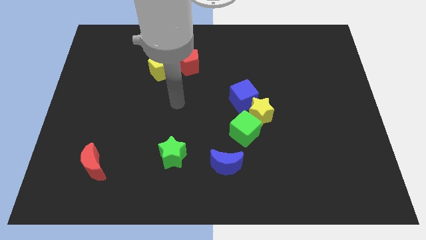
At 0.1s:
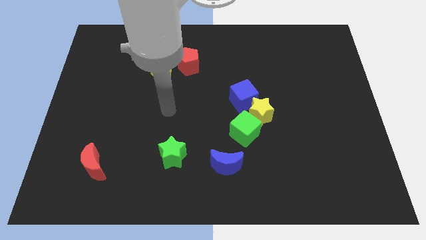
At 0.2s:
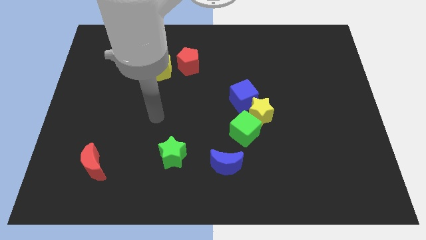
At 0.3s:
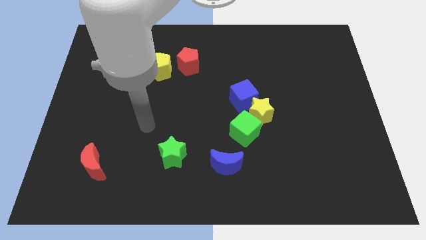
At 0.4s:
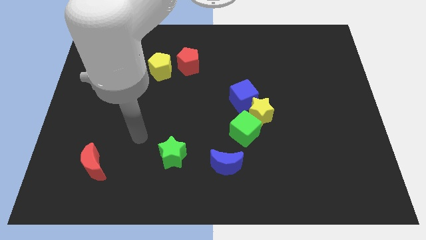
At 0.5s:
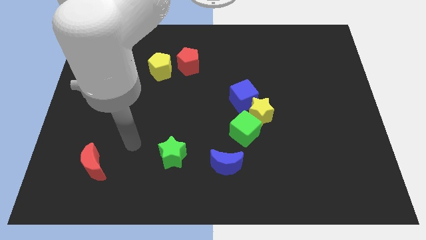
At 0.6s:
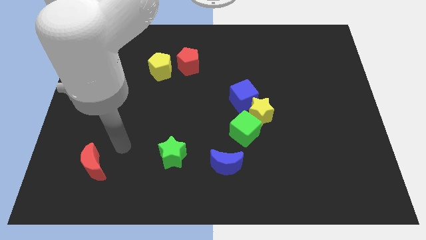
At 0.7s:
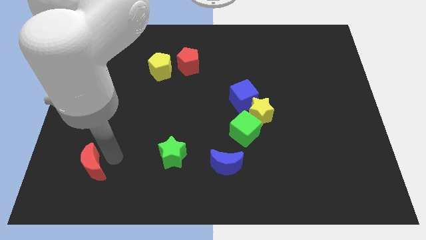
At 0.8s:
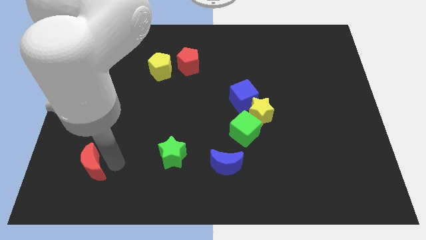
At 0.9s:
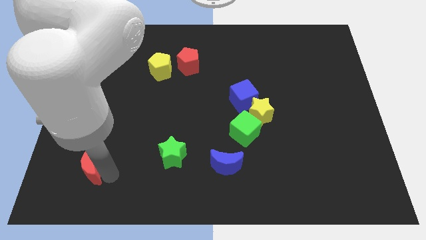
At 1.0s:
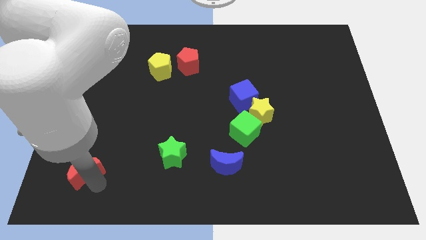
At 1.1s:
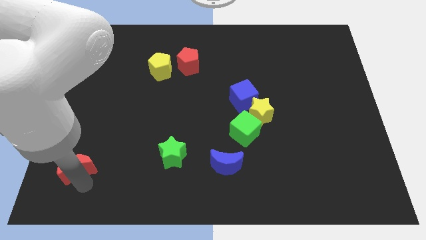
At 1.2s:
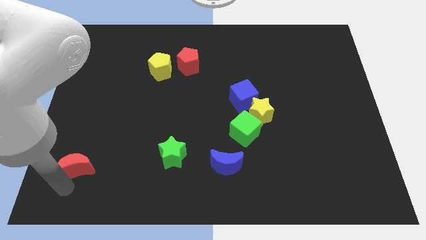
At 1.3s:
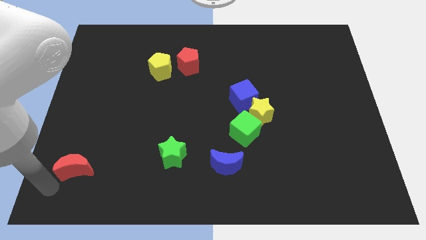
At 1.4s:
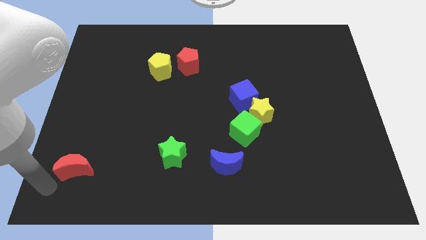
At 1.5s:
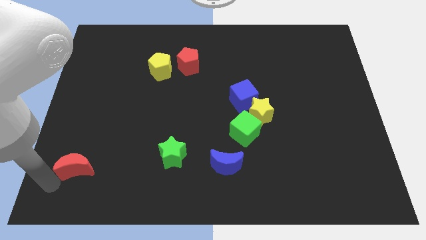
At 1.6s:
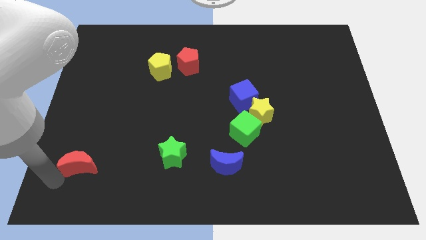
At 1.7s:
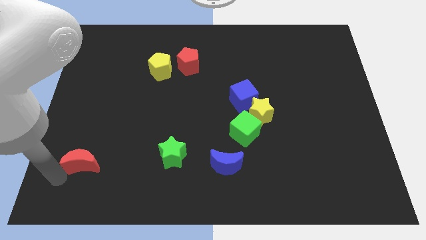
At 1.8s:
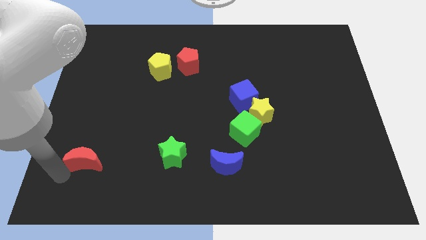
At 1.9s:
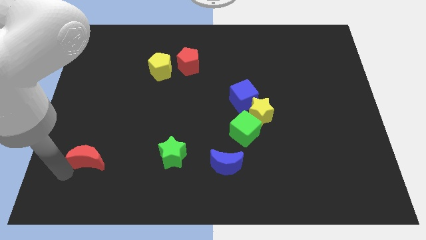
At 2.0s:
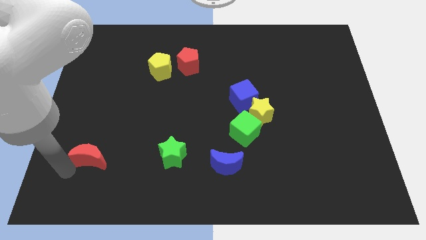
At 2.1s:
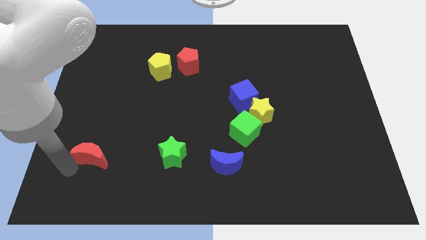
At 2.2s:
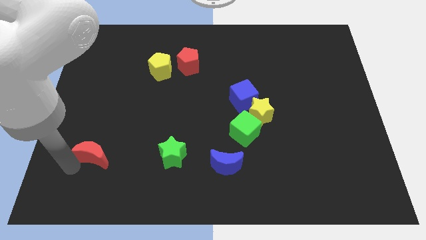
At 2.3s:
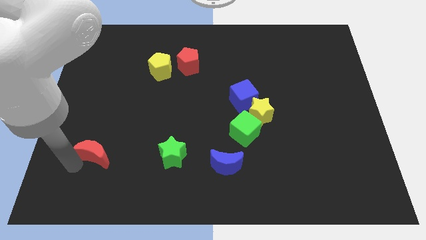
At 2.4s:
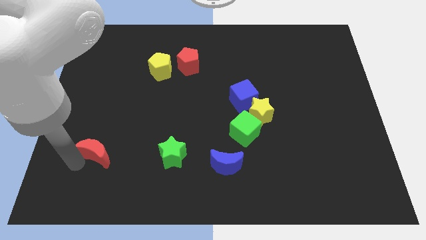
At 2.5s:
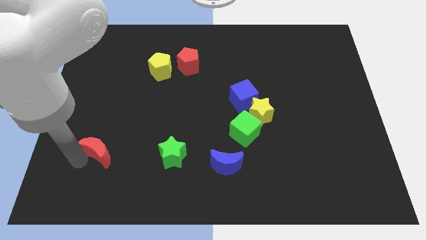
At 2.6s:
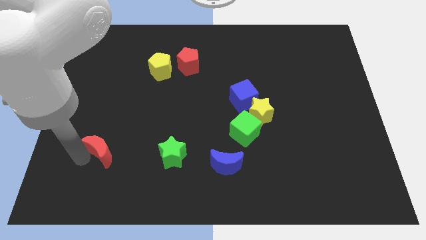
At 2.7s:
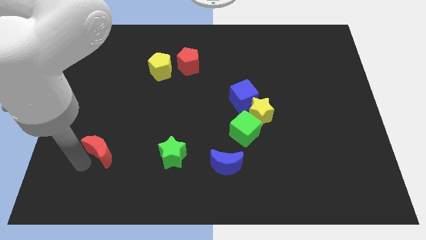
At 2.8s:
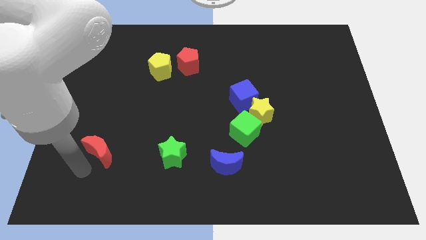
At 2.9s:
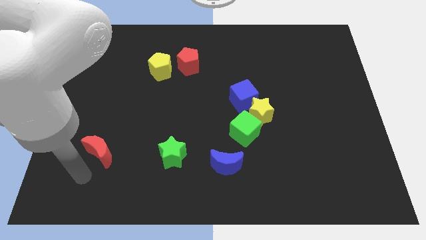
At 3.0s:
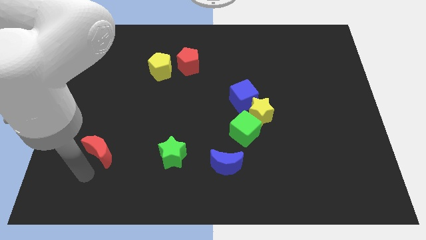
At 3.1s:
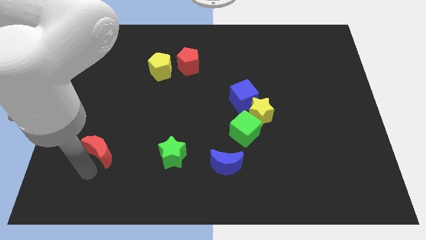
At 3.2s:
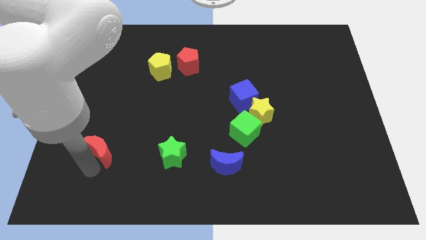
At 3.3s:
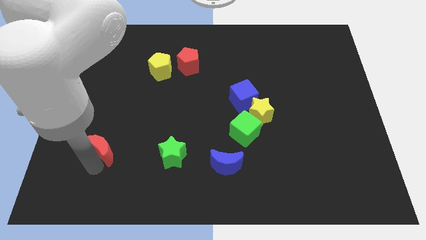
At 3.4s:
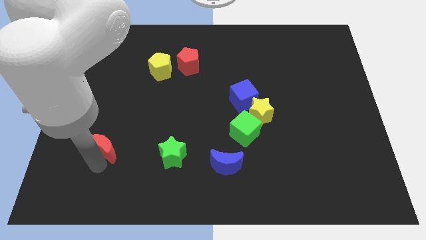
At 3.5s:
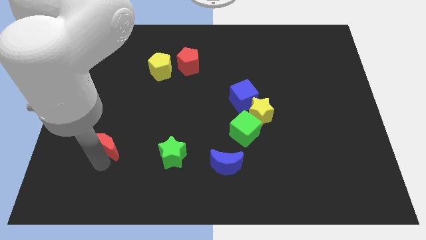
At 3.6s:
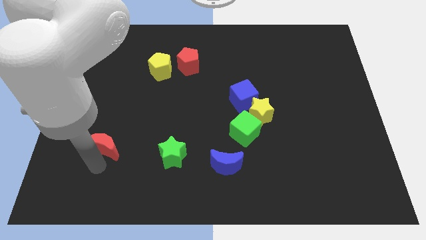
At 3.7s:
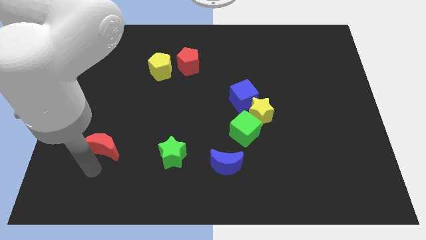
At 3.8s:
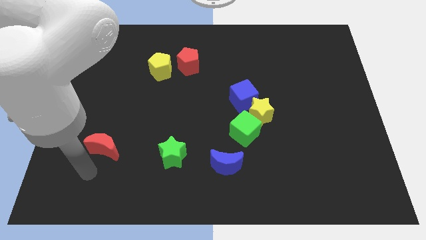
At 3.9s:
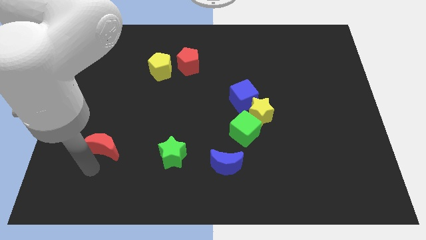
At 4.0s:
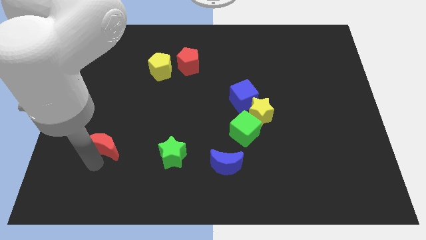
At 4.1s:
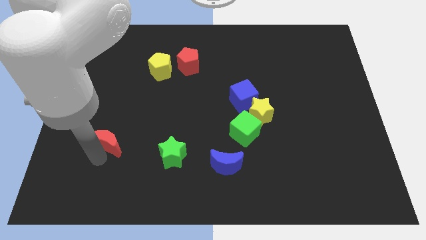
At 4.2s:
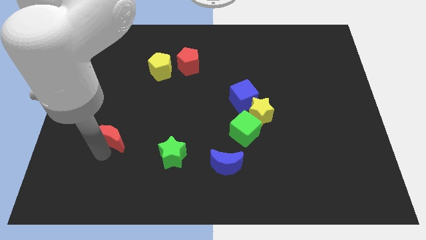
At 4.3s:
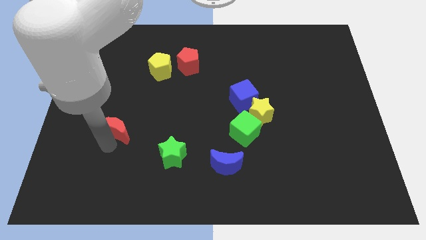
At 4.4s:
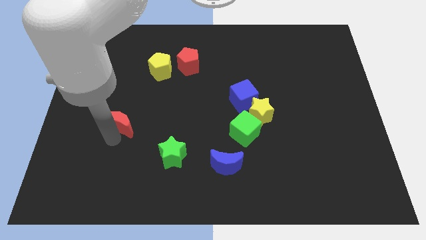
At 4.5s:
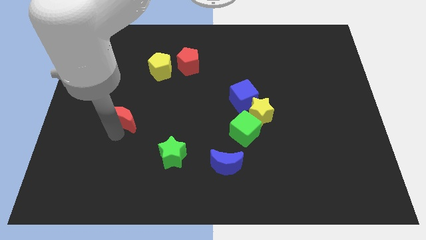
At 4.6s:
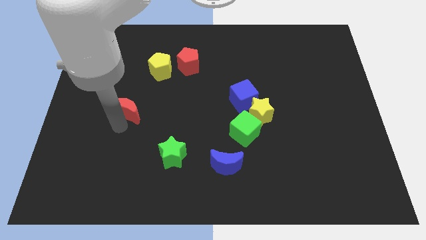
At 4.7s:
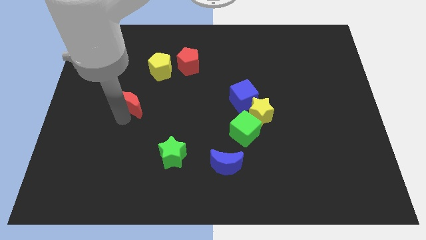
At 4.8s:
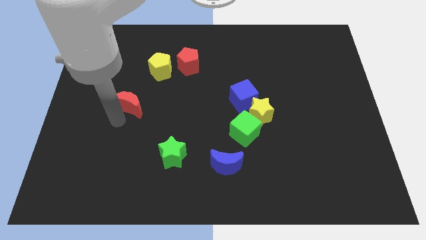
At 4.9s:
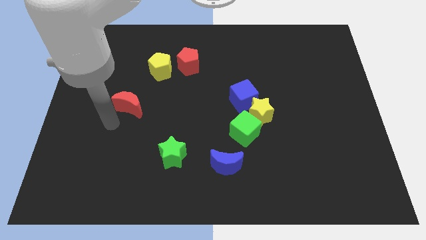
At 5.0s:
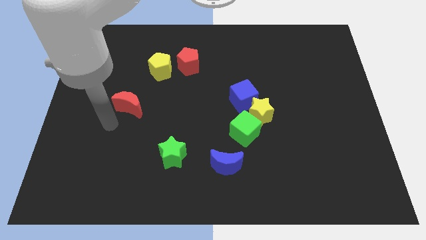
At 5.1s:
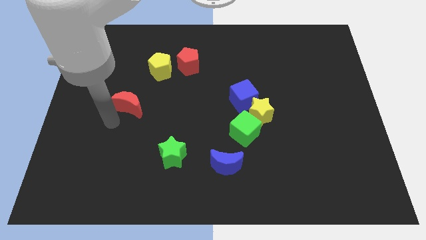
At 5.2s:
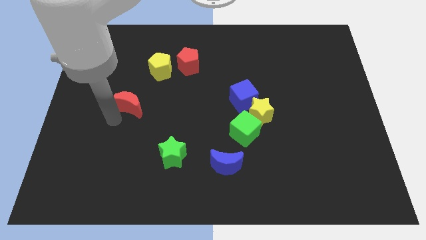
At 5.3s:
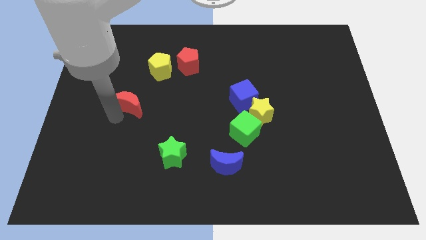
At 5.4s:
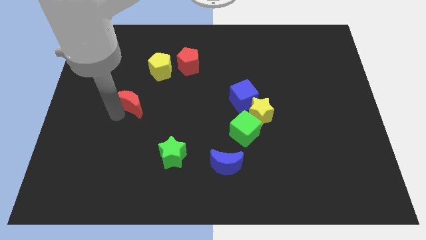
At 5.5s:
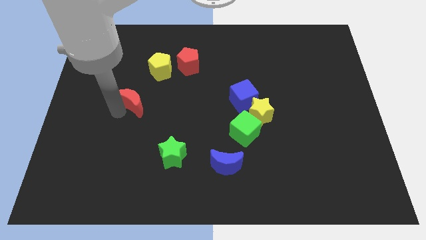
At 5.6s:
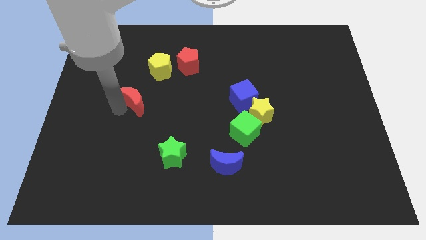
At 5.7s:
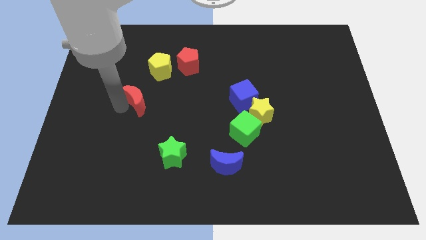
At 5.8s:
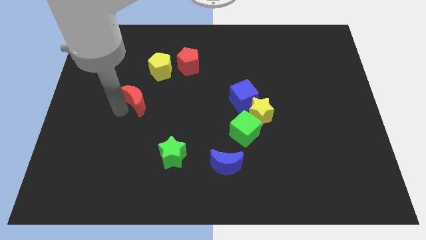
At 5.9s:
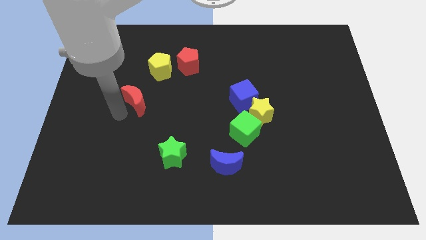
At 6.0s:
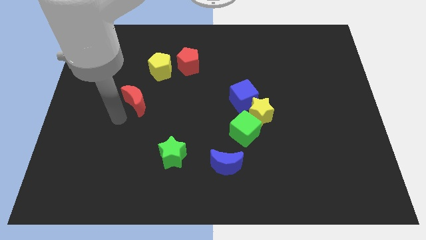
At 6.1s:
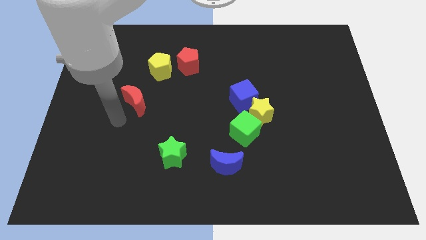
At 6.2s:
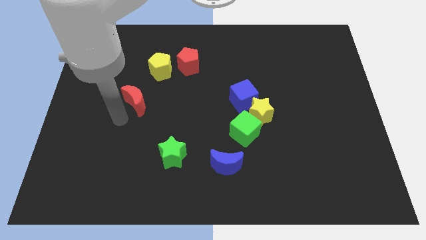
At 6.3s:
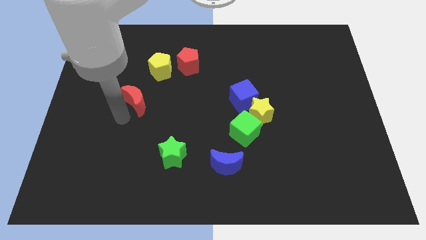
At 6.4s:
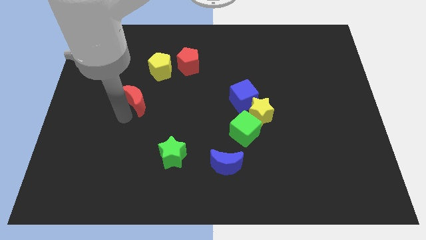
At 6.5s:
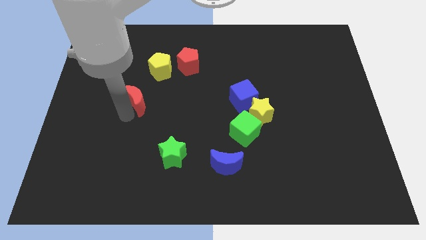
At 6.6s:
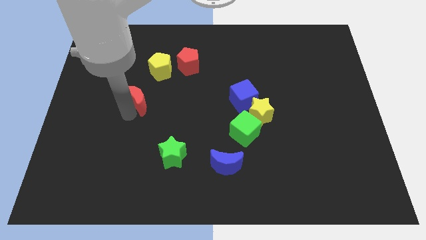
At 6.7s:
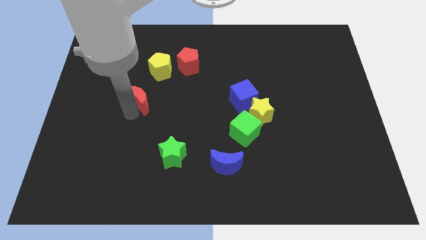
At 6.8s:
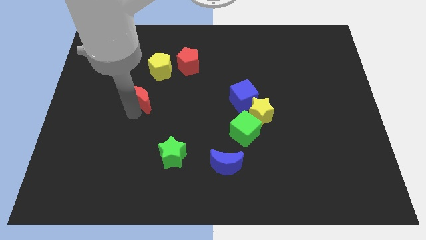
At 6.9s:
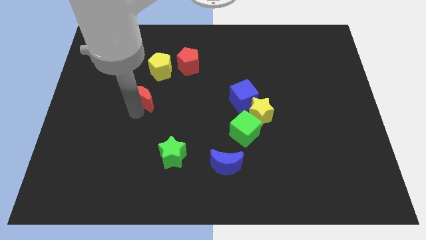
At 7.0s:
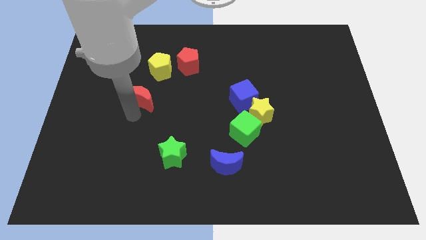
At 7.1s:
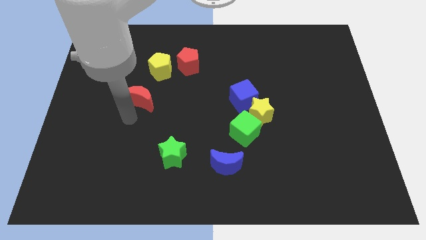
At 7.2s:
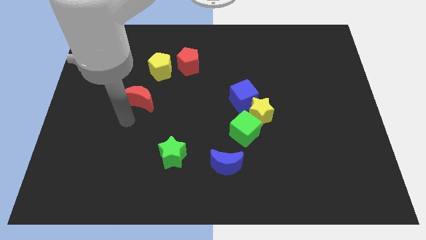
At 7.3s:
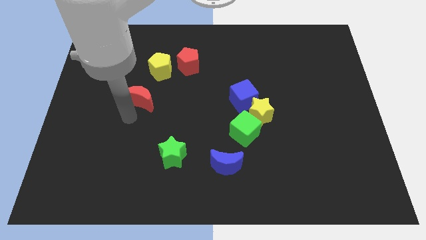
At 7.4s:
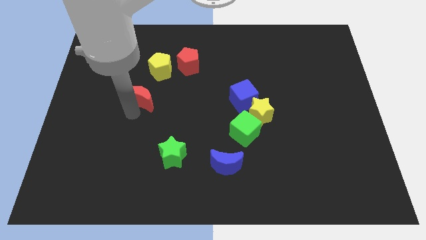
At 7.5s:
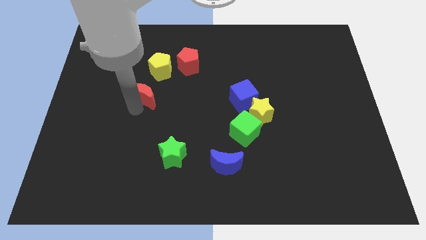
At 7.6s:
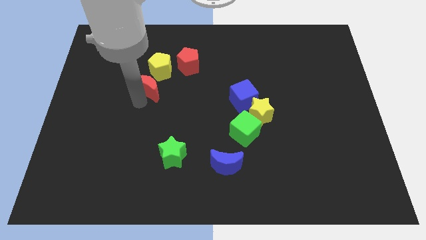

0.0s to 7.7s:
move the red moon to the bottom left of the red pentagon

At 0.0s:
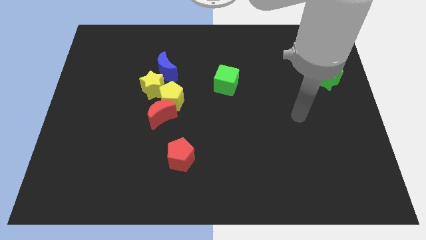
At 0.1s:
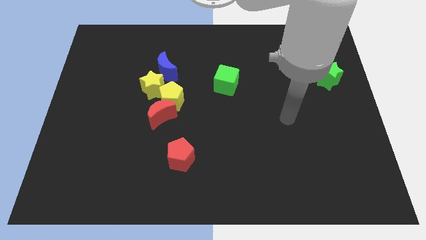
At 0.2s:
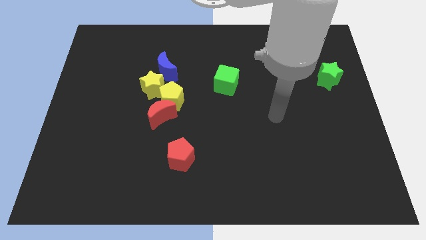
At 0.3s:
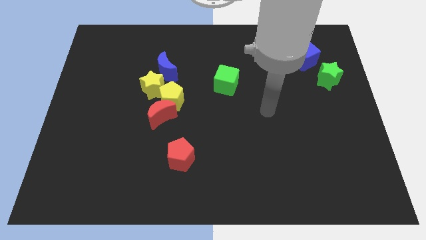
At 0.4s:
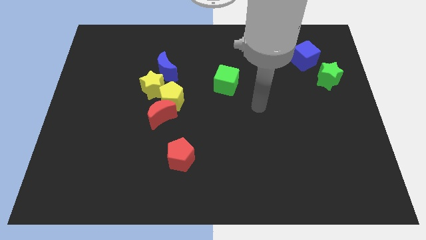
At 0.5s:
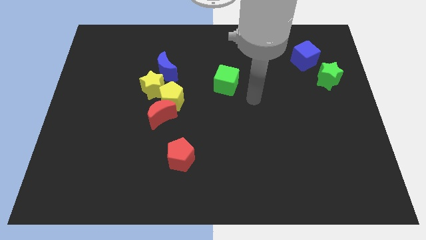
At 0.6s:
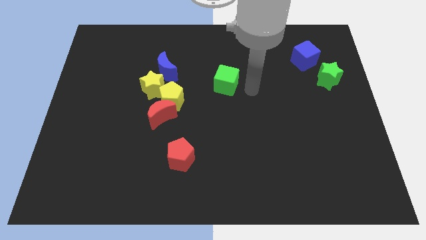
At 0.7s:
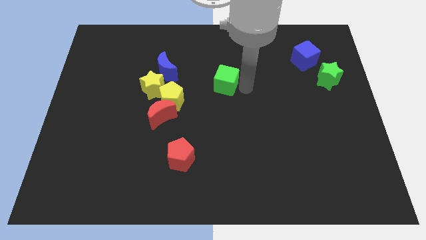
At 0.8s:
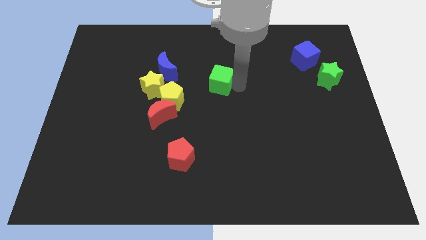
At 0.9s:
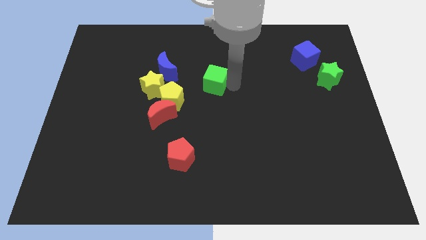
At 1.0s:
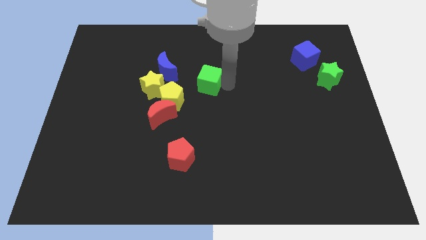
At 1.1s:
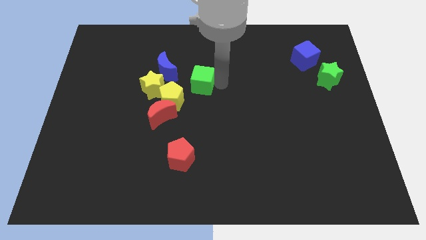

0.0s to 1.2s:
put the green cube to the bottom right side of the blue moon
